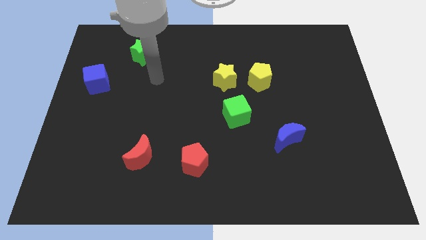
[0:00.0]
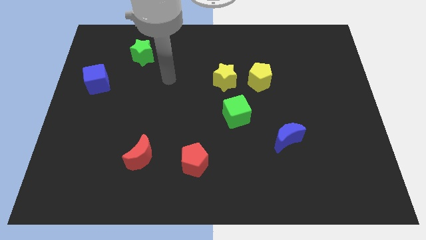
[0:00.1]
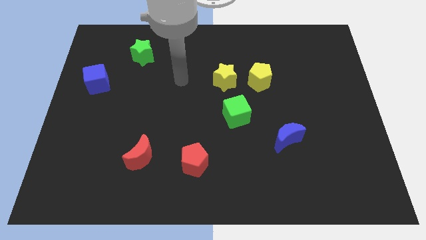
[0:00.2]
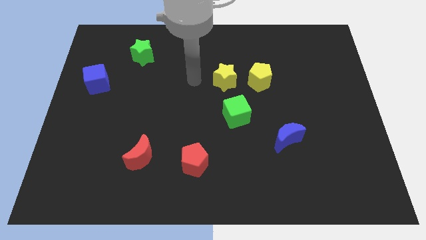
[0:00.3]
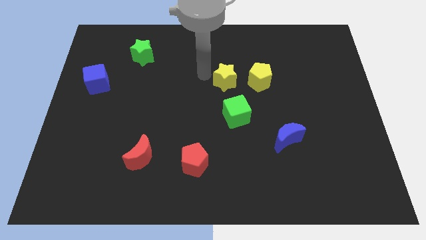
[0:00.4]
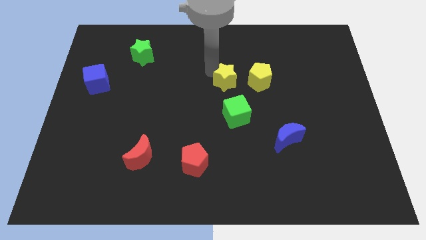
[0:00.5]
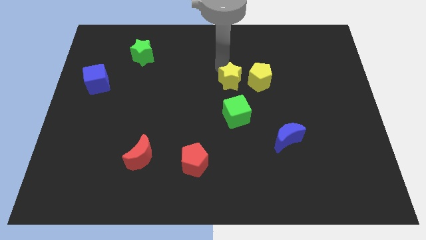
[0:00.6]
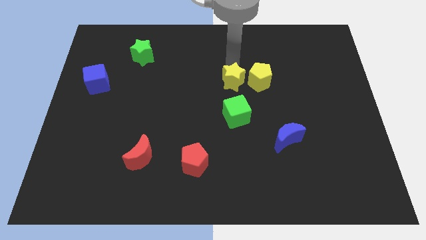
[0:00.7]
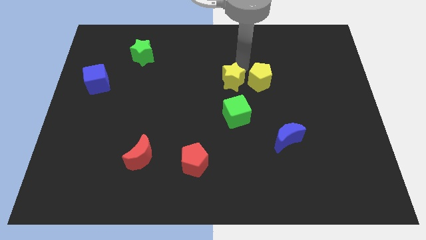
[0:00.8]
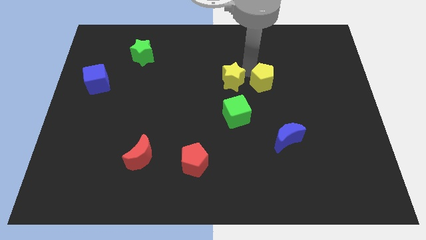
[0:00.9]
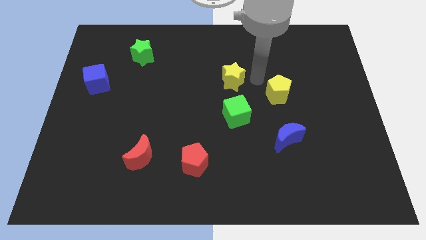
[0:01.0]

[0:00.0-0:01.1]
pull the yellow star apart from the yellow pentagon

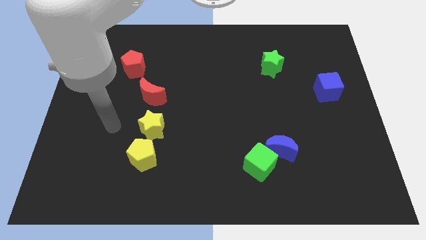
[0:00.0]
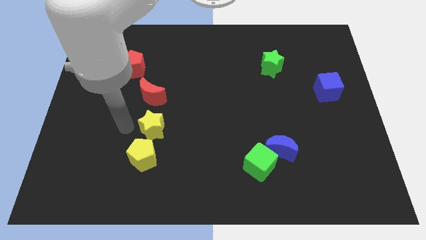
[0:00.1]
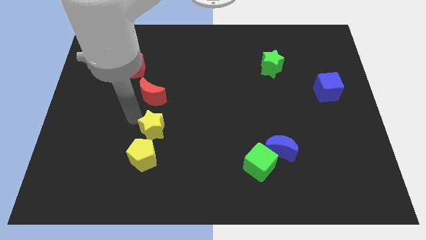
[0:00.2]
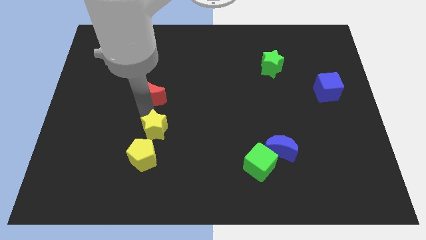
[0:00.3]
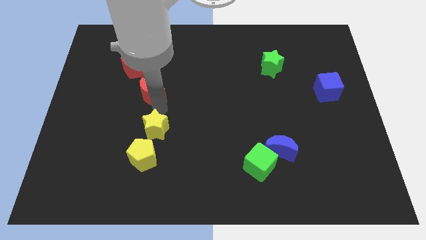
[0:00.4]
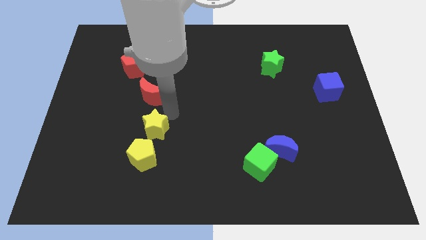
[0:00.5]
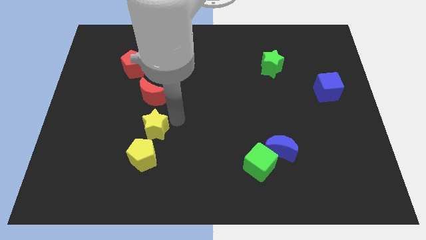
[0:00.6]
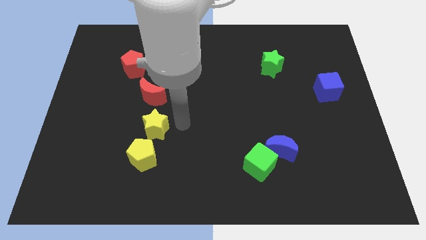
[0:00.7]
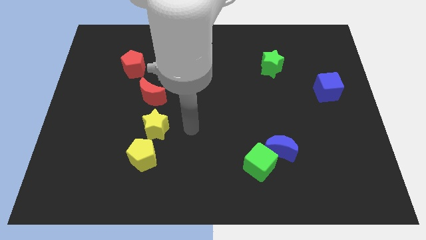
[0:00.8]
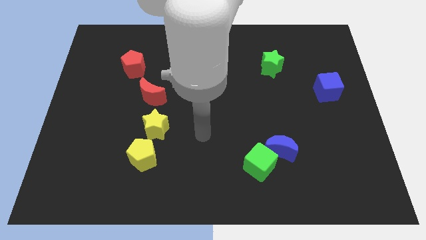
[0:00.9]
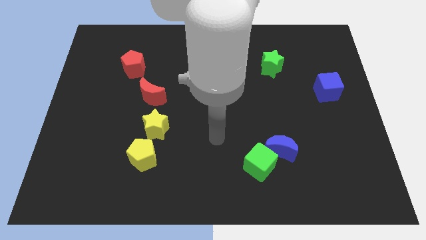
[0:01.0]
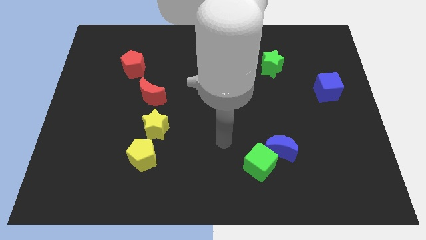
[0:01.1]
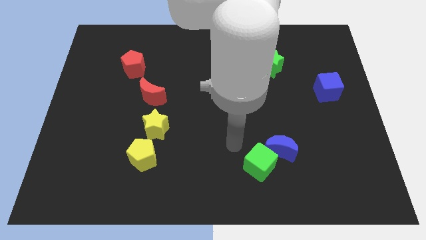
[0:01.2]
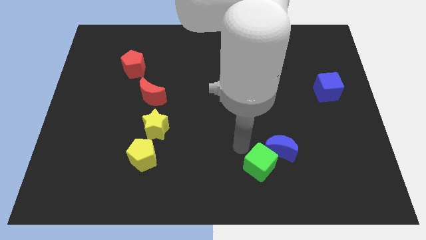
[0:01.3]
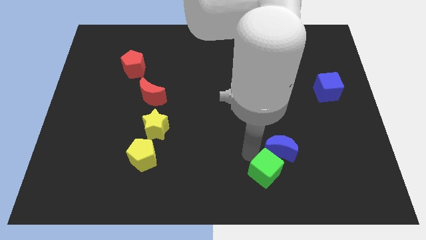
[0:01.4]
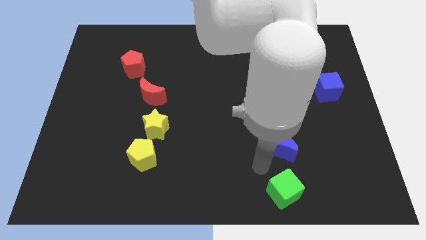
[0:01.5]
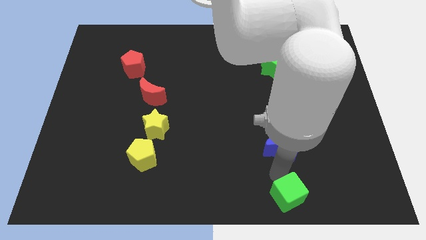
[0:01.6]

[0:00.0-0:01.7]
pull the blue moon apart from the green cube

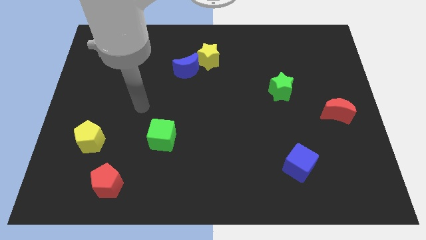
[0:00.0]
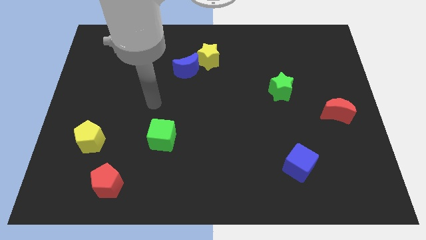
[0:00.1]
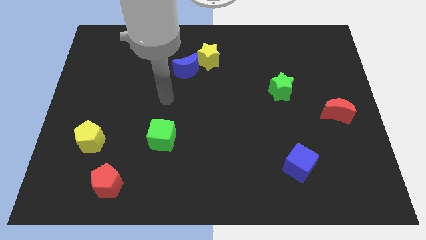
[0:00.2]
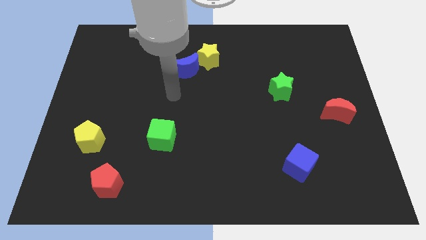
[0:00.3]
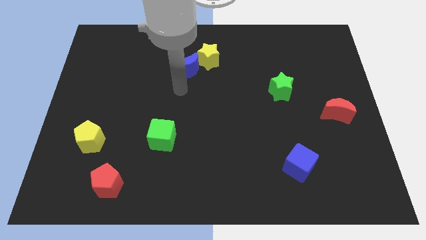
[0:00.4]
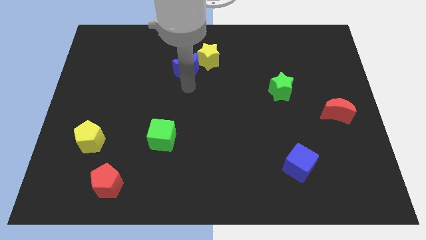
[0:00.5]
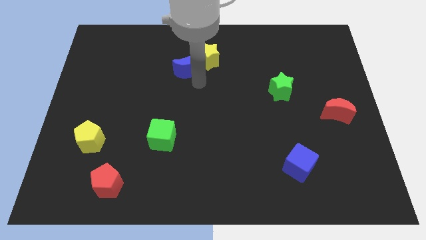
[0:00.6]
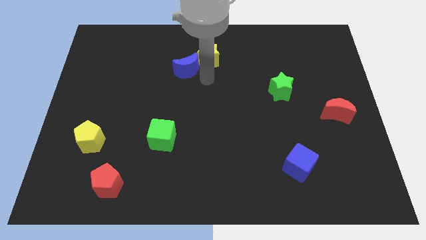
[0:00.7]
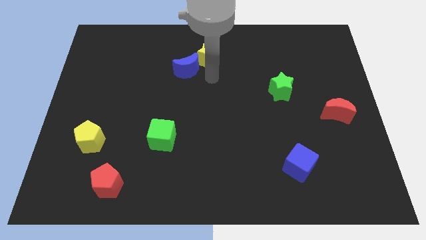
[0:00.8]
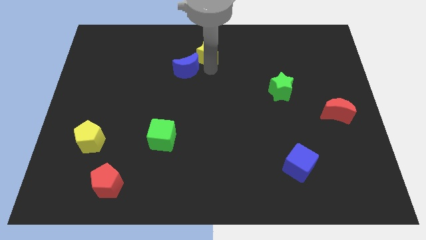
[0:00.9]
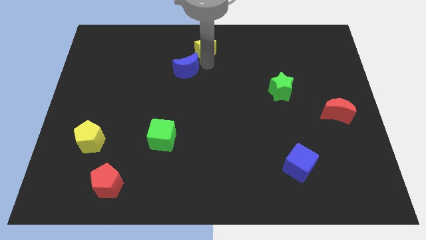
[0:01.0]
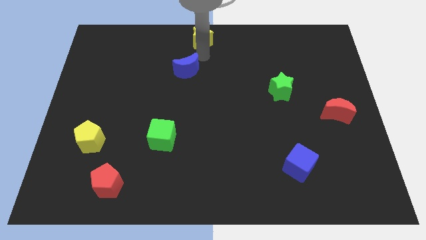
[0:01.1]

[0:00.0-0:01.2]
separate the blue moon from the yellow star

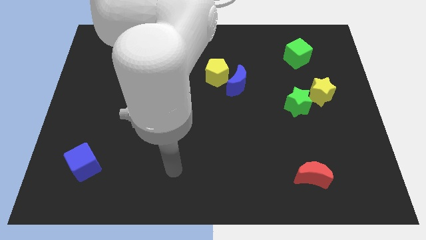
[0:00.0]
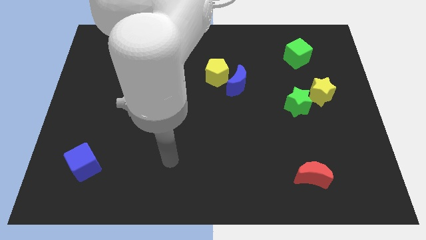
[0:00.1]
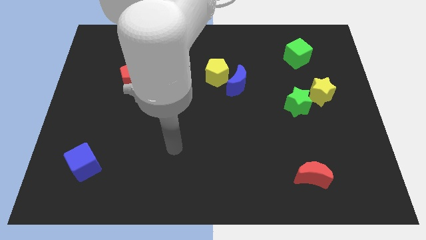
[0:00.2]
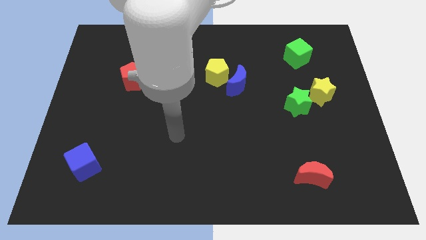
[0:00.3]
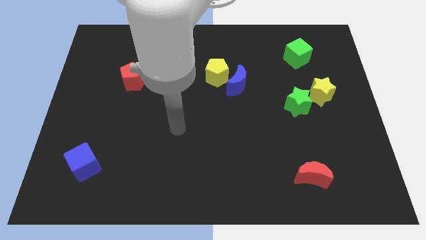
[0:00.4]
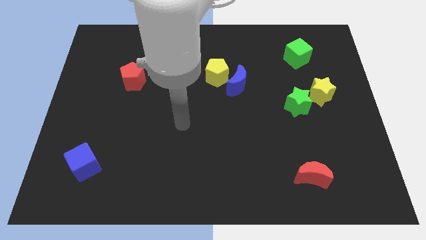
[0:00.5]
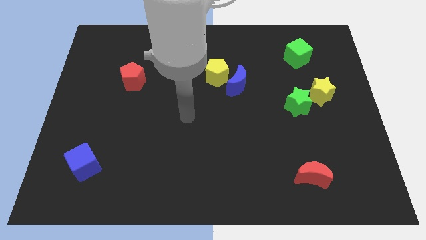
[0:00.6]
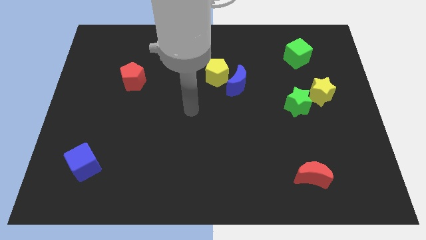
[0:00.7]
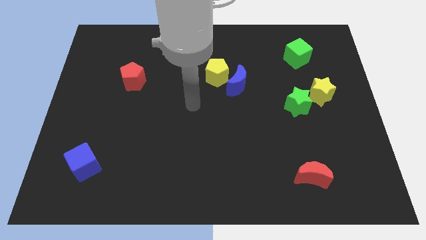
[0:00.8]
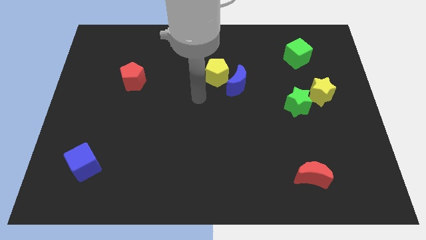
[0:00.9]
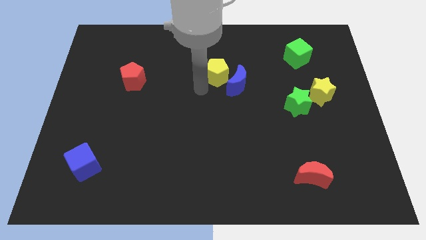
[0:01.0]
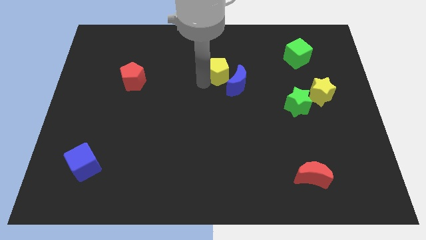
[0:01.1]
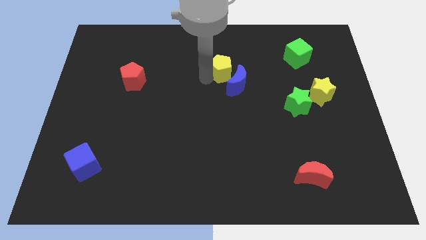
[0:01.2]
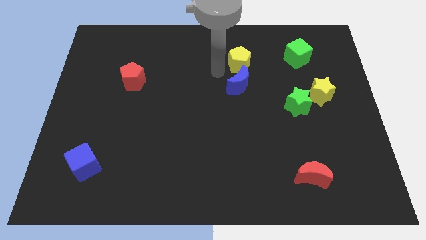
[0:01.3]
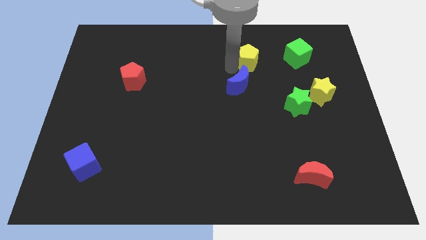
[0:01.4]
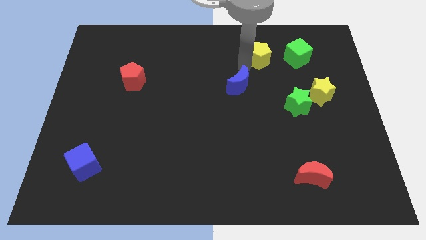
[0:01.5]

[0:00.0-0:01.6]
separate the blue moon from the yellow pentagon

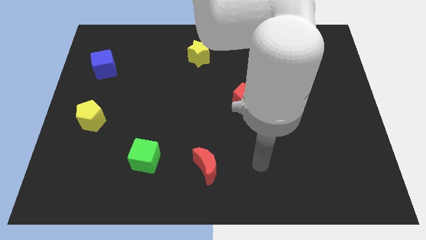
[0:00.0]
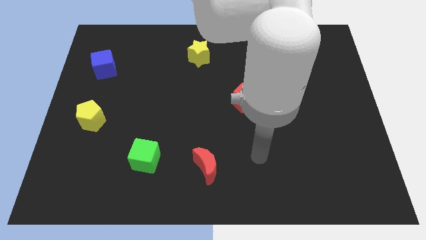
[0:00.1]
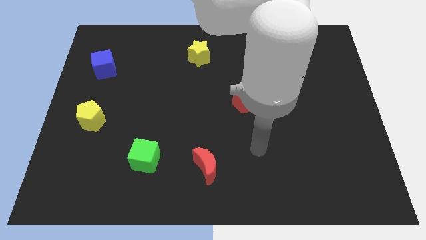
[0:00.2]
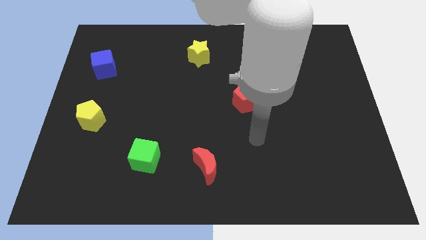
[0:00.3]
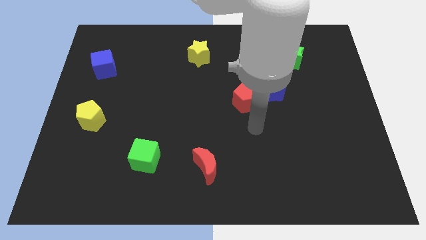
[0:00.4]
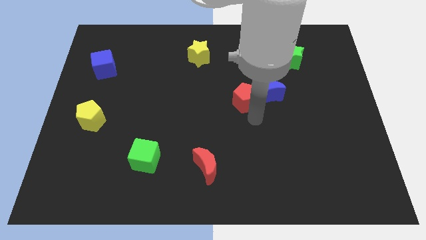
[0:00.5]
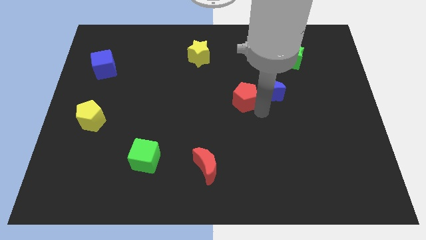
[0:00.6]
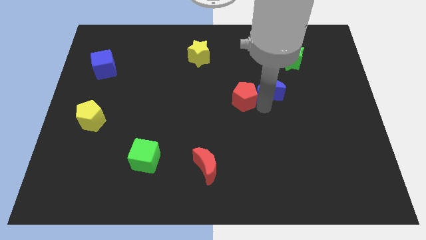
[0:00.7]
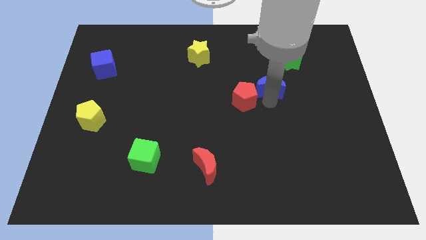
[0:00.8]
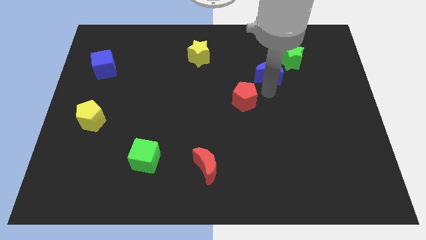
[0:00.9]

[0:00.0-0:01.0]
move the red pentagon away from the blue moon

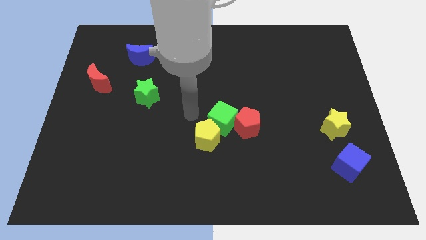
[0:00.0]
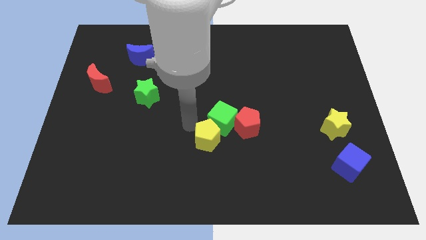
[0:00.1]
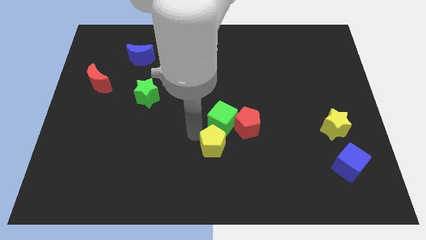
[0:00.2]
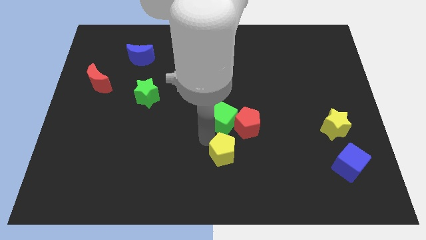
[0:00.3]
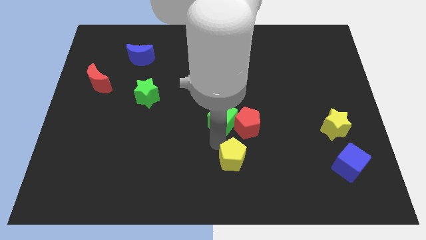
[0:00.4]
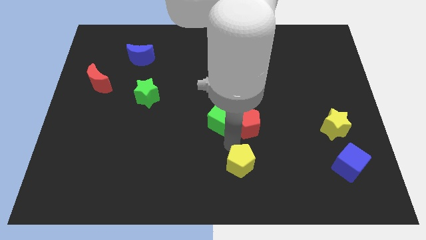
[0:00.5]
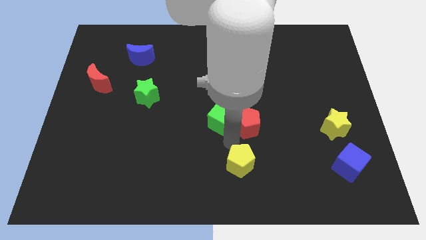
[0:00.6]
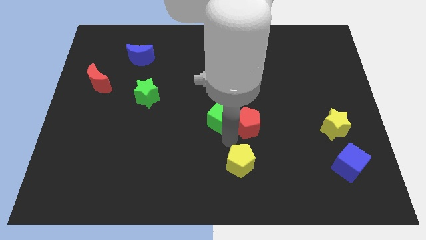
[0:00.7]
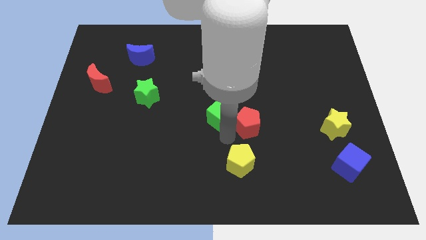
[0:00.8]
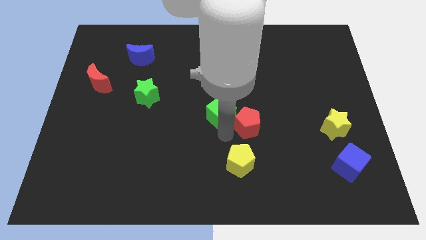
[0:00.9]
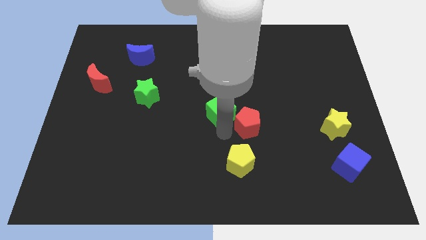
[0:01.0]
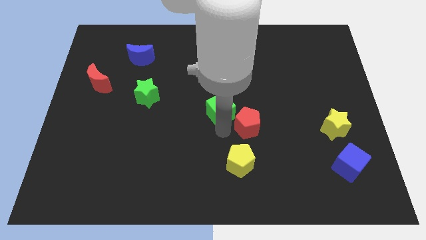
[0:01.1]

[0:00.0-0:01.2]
pull the green cube apart from the red pentagon and yellow pentagon

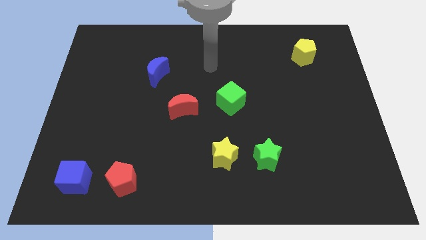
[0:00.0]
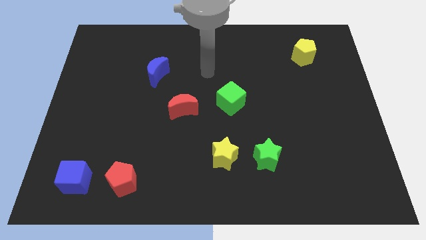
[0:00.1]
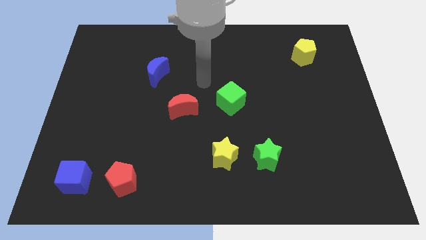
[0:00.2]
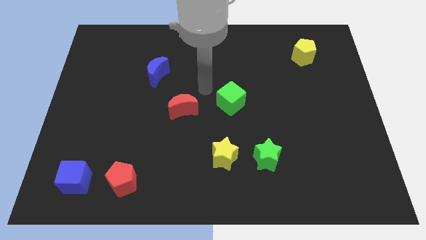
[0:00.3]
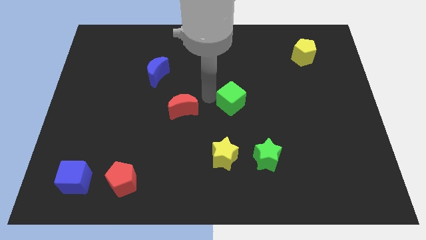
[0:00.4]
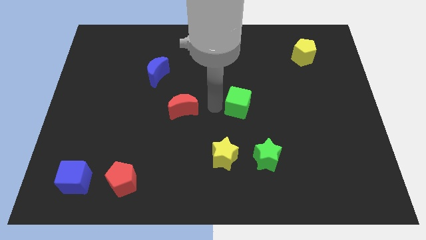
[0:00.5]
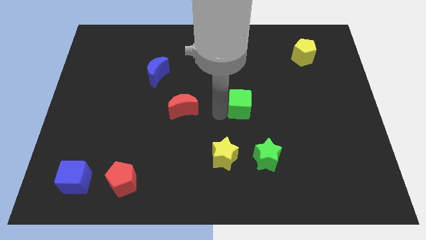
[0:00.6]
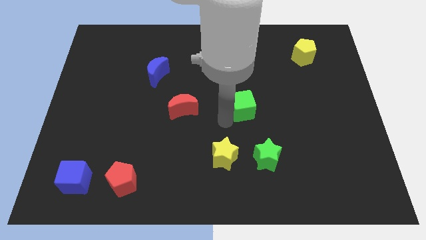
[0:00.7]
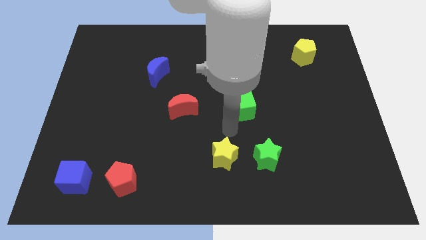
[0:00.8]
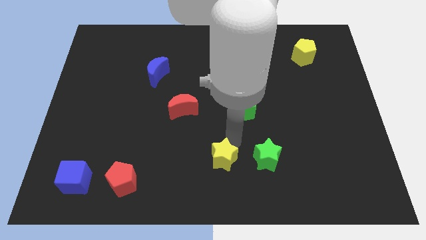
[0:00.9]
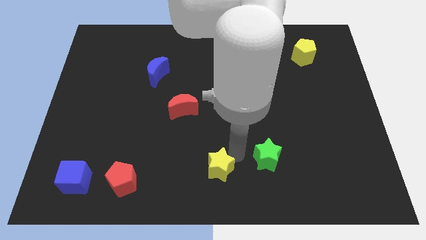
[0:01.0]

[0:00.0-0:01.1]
move the green star away from the yellow star

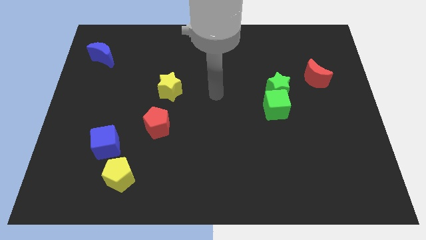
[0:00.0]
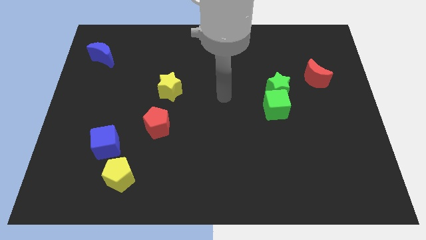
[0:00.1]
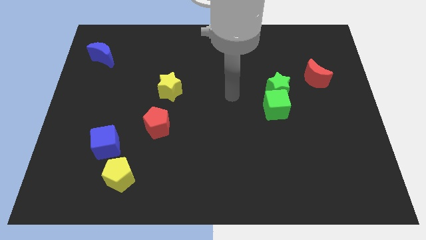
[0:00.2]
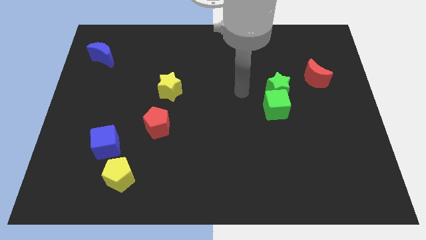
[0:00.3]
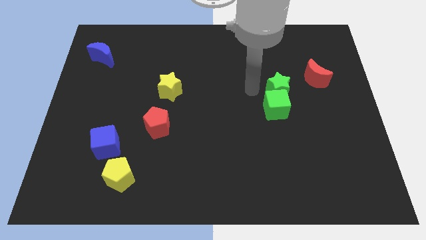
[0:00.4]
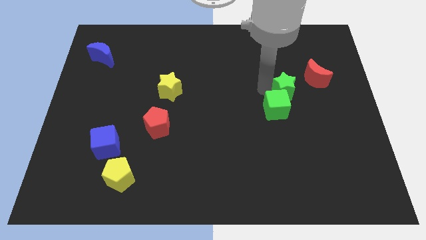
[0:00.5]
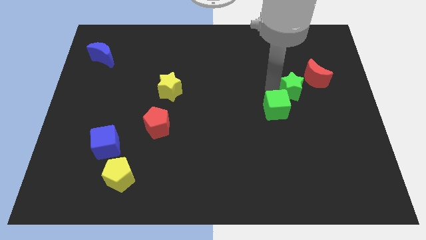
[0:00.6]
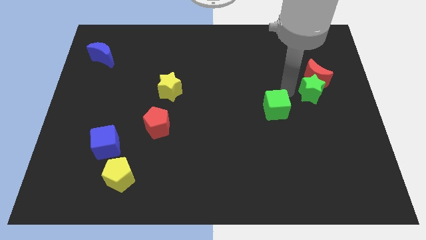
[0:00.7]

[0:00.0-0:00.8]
pull the green cube apart from the green star
